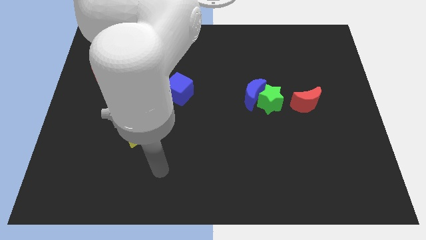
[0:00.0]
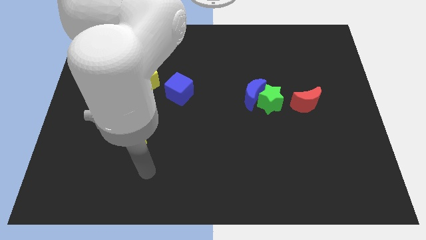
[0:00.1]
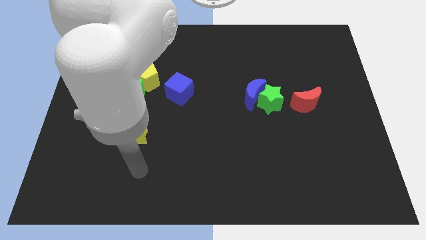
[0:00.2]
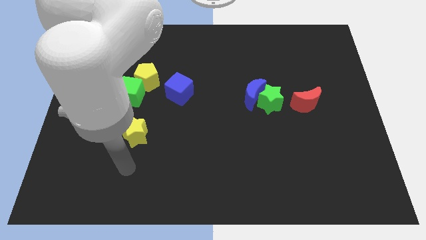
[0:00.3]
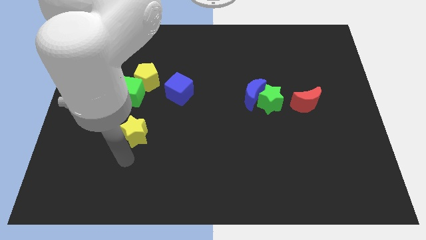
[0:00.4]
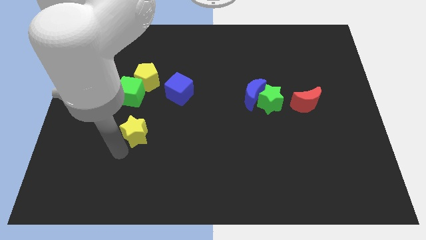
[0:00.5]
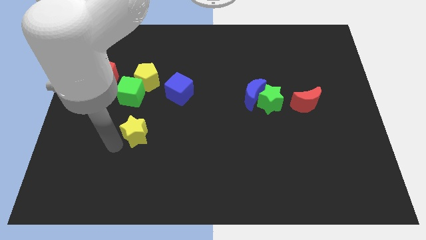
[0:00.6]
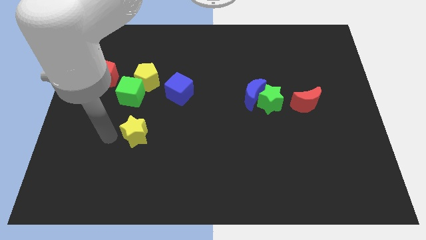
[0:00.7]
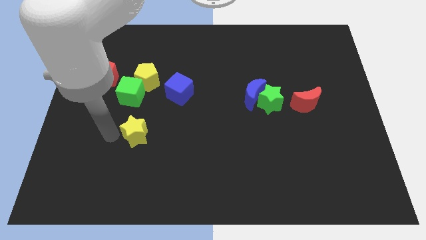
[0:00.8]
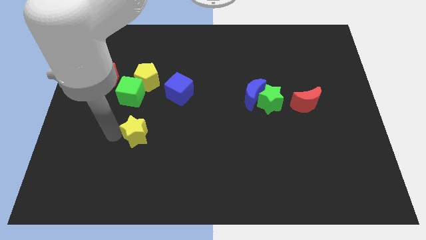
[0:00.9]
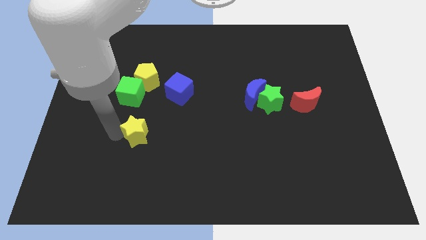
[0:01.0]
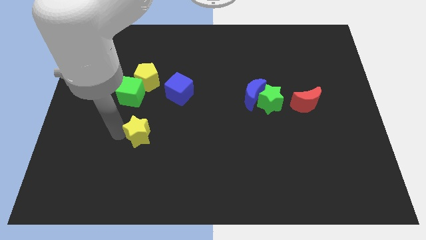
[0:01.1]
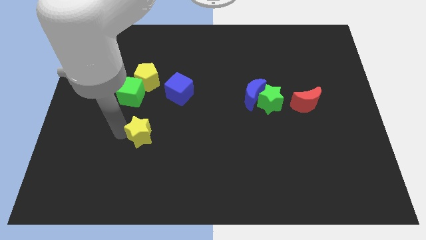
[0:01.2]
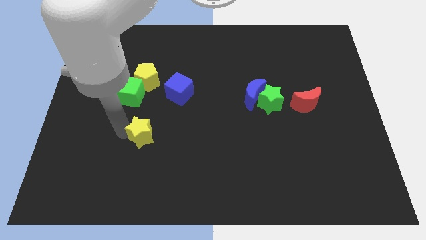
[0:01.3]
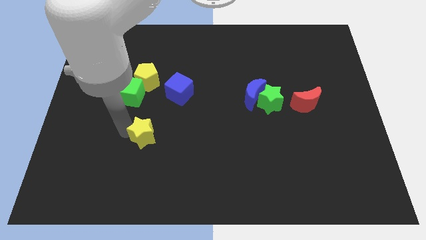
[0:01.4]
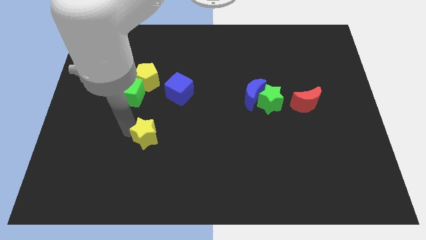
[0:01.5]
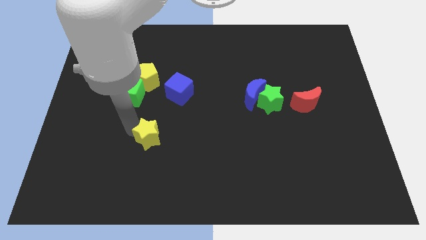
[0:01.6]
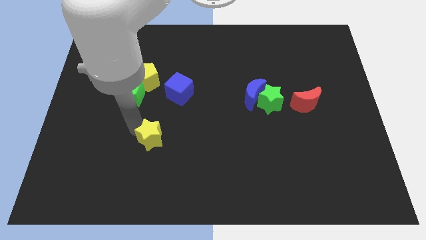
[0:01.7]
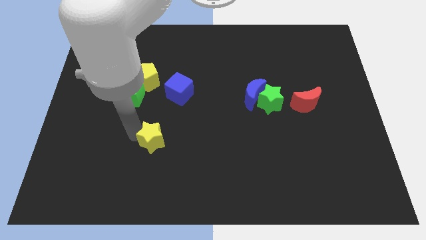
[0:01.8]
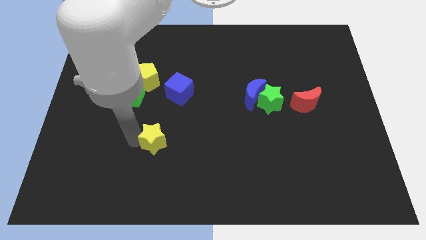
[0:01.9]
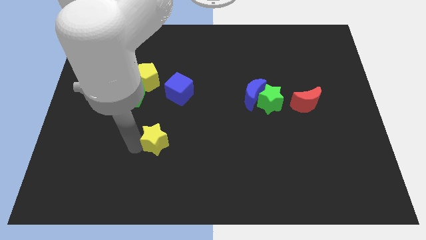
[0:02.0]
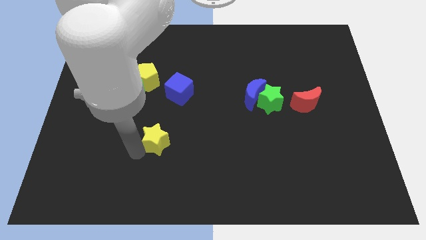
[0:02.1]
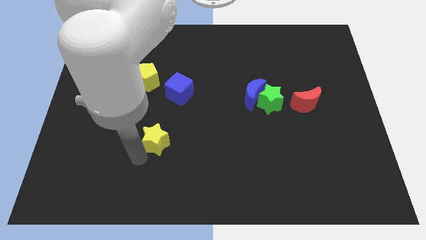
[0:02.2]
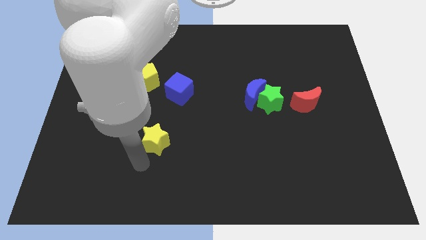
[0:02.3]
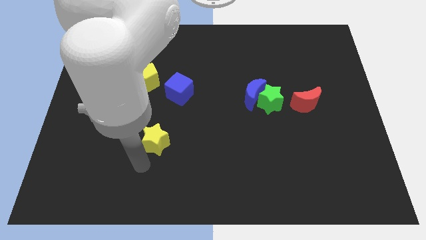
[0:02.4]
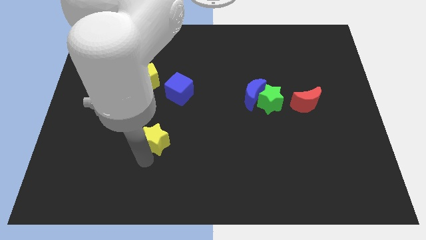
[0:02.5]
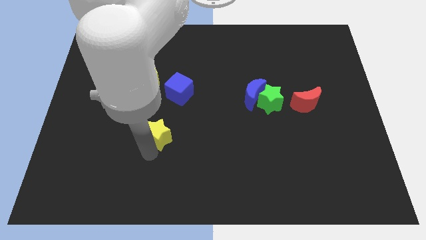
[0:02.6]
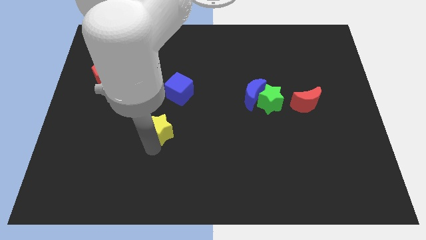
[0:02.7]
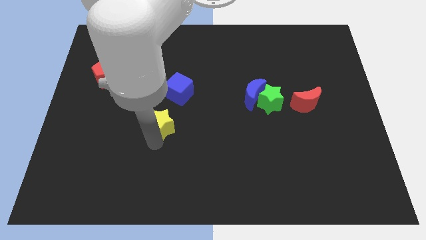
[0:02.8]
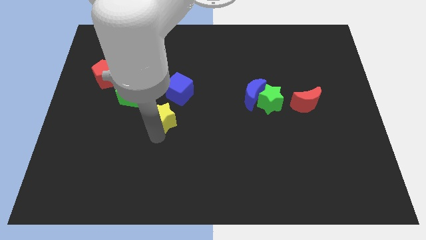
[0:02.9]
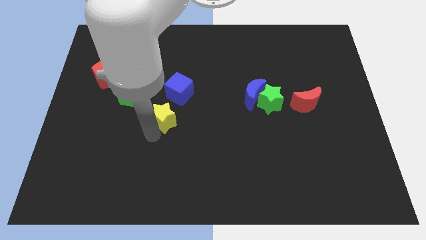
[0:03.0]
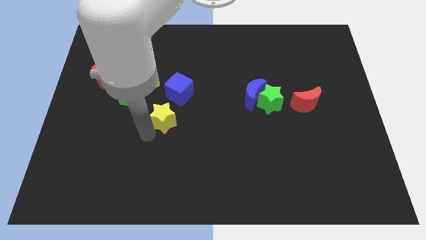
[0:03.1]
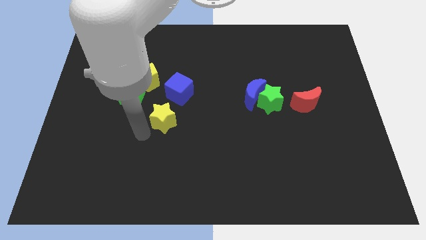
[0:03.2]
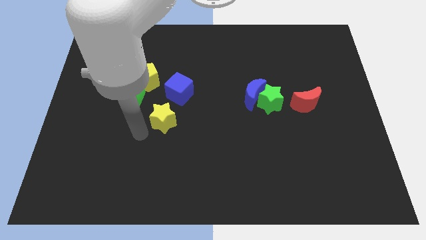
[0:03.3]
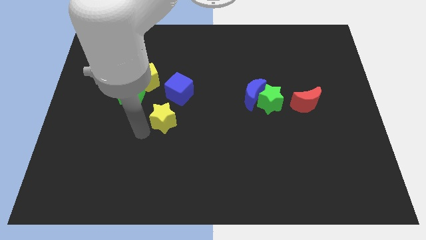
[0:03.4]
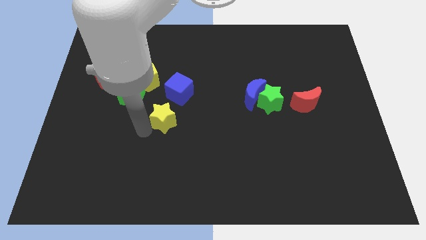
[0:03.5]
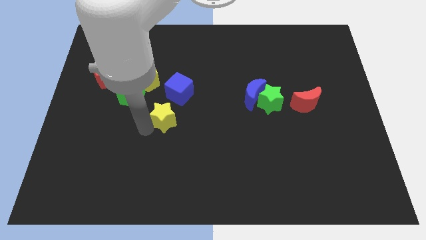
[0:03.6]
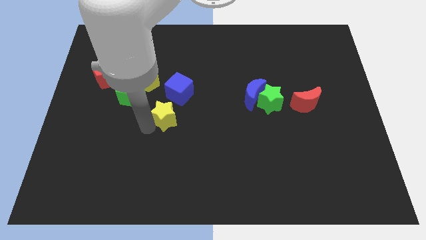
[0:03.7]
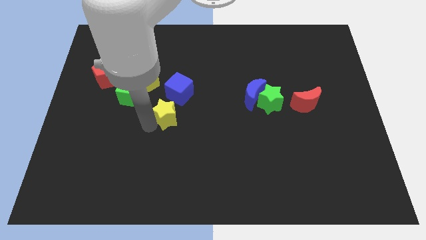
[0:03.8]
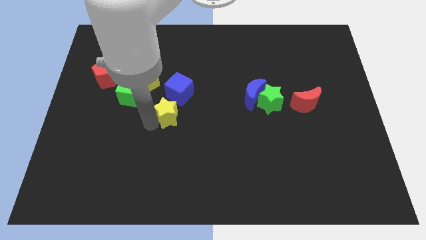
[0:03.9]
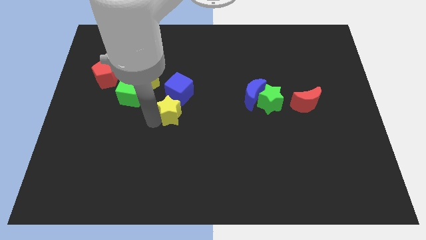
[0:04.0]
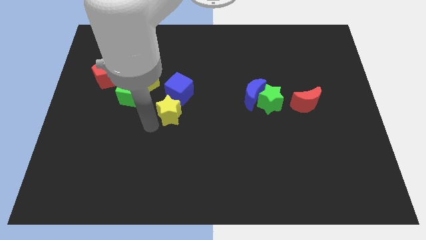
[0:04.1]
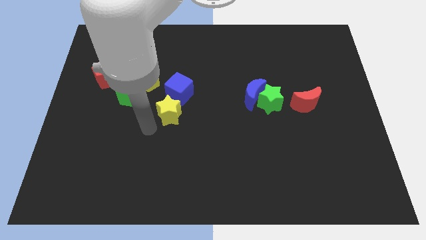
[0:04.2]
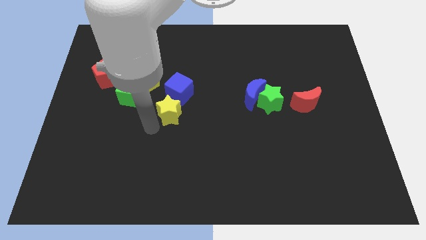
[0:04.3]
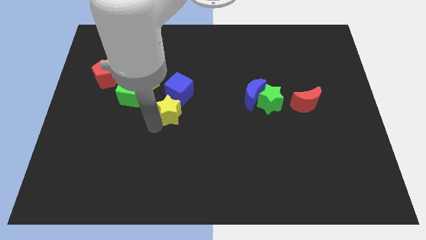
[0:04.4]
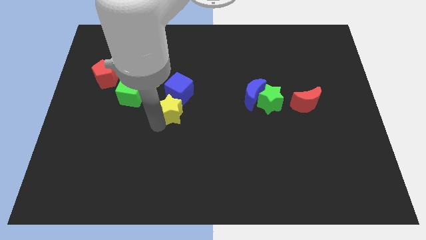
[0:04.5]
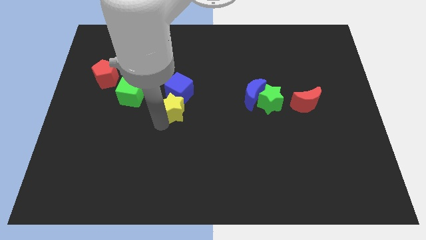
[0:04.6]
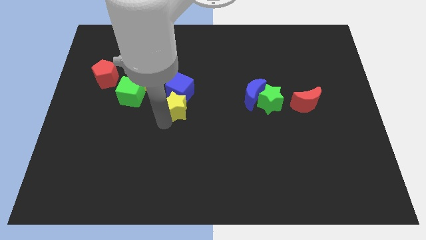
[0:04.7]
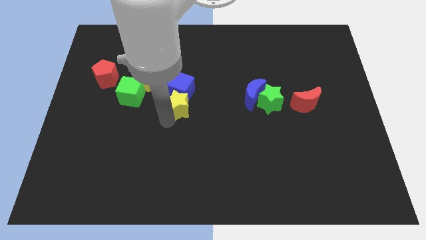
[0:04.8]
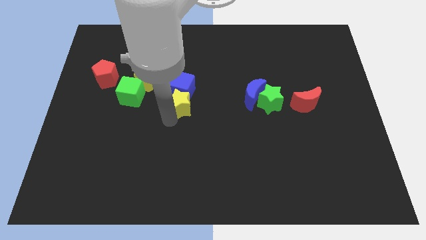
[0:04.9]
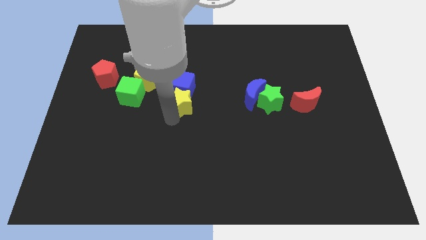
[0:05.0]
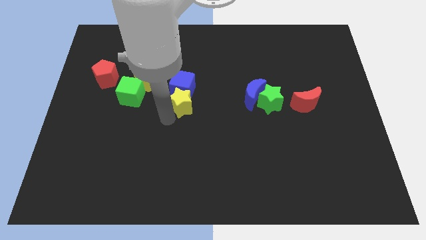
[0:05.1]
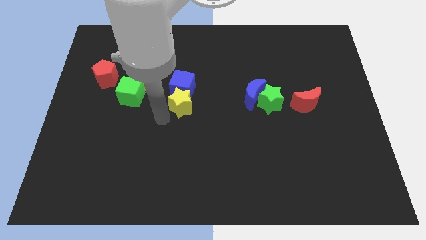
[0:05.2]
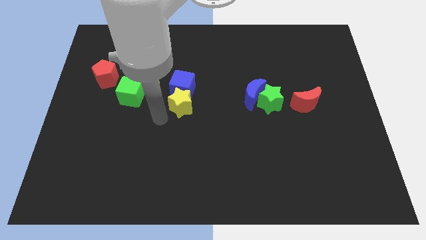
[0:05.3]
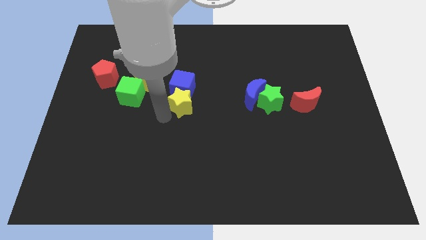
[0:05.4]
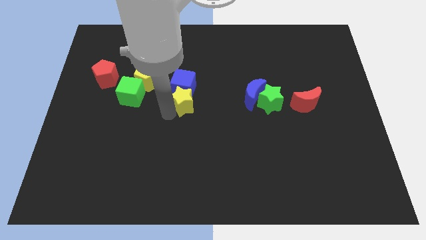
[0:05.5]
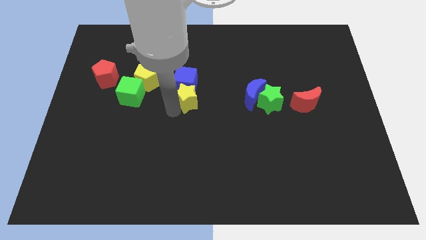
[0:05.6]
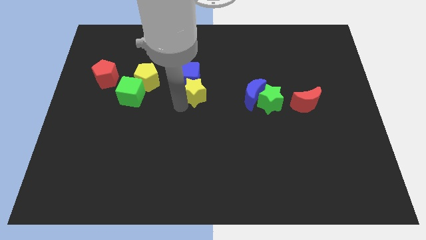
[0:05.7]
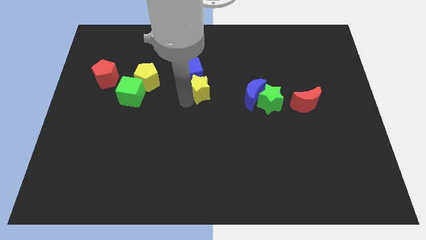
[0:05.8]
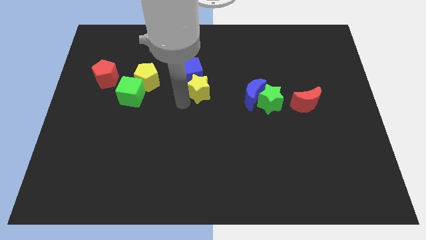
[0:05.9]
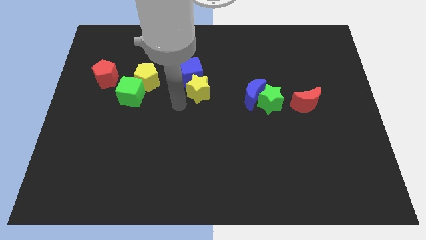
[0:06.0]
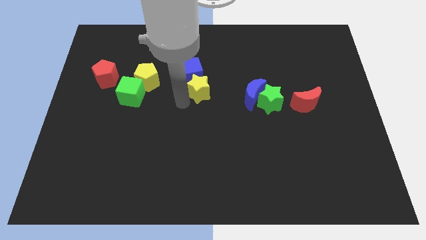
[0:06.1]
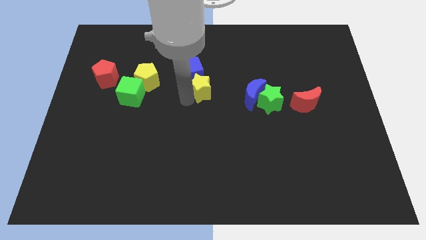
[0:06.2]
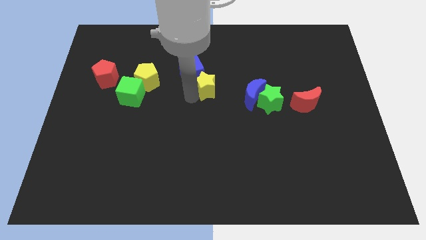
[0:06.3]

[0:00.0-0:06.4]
push the yellow star upwards and right

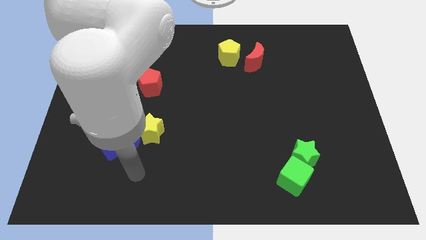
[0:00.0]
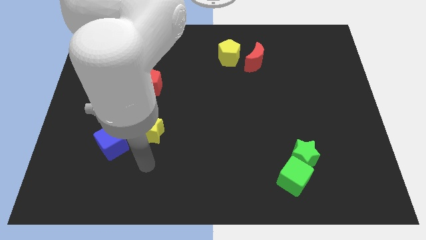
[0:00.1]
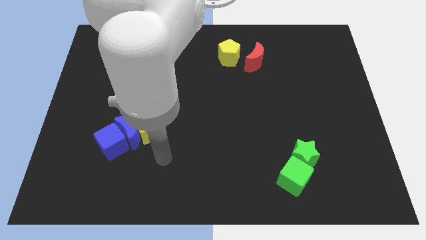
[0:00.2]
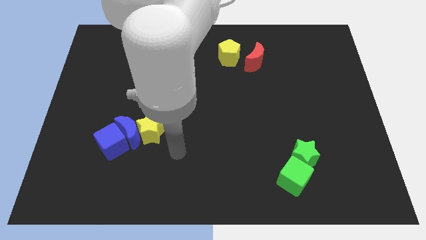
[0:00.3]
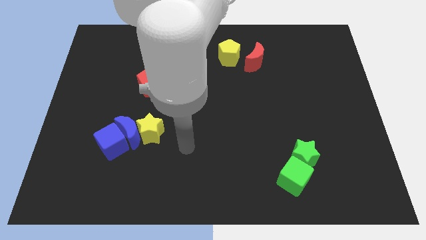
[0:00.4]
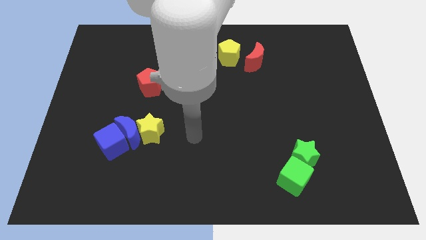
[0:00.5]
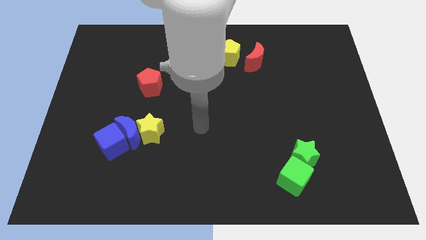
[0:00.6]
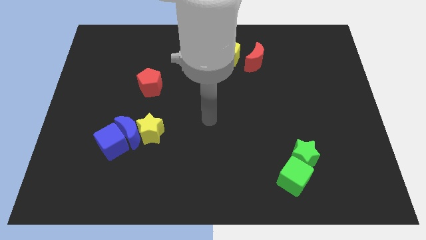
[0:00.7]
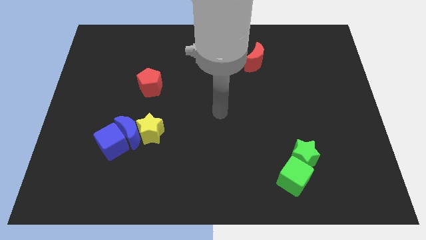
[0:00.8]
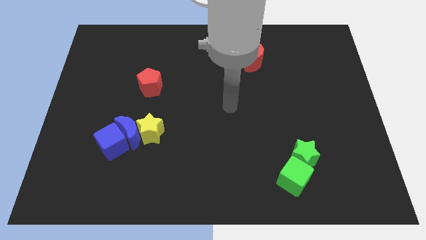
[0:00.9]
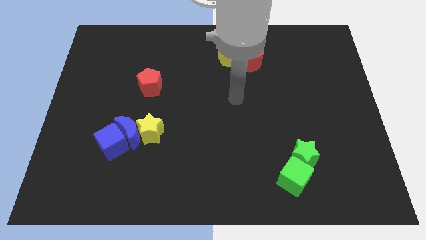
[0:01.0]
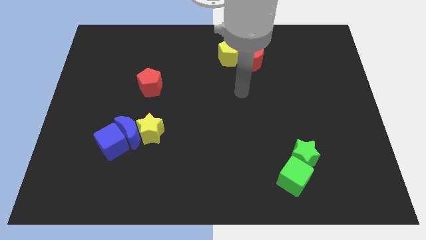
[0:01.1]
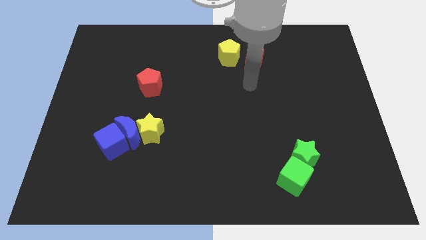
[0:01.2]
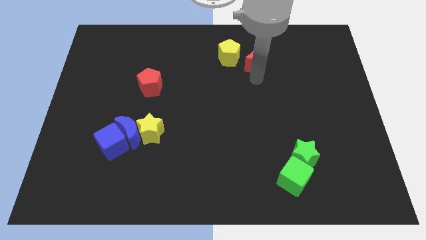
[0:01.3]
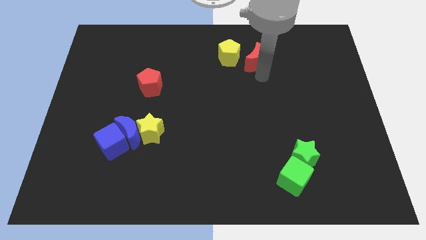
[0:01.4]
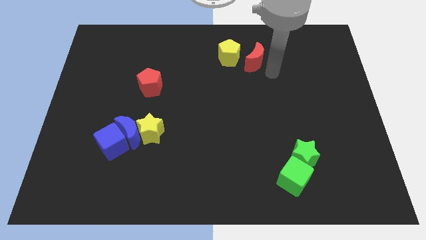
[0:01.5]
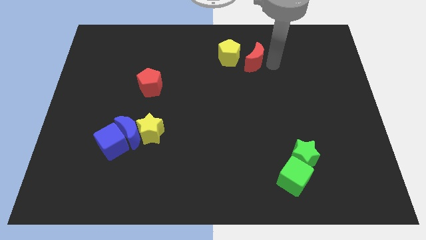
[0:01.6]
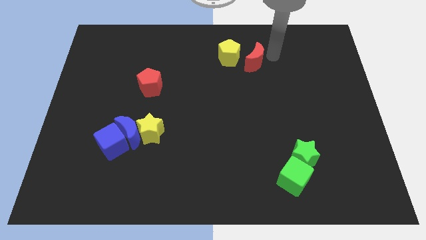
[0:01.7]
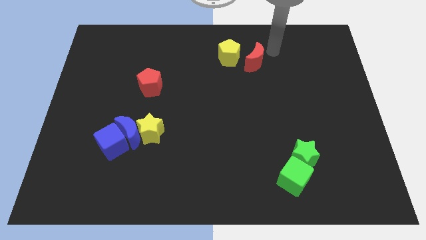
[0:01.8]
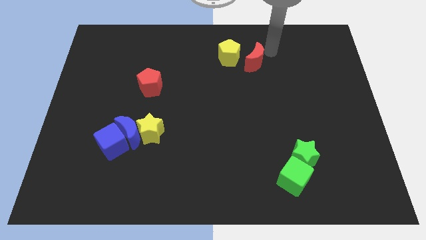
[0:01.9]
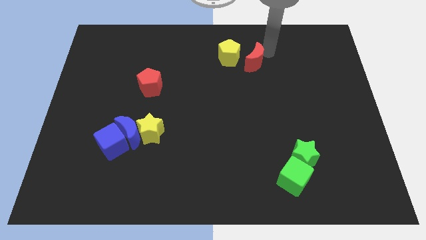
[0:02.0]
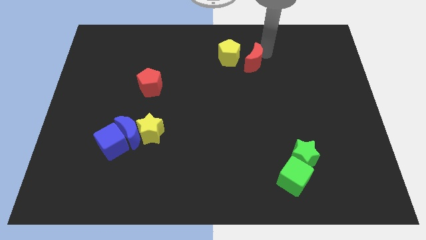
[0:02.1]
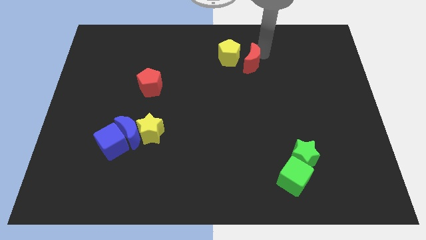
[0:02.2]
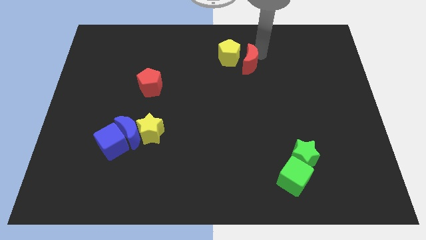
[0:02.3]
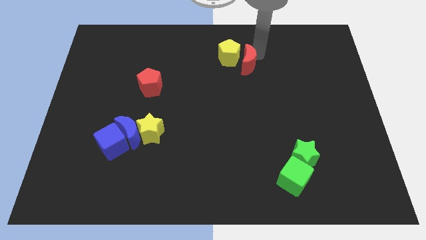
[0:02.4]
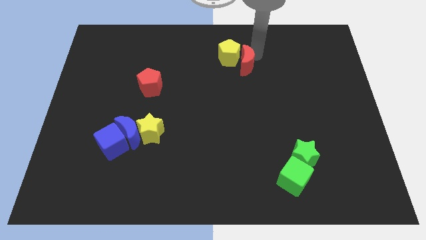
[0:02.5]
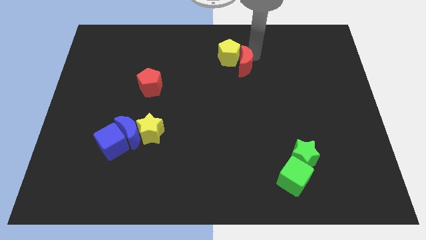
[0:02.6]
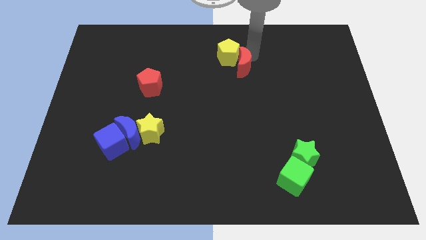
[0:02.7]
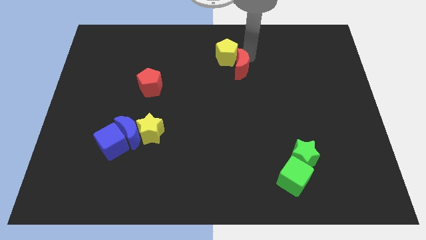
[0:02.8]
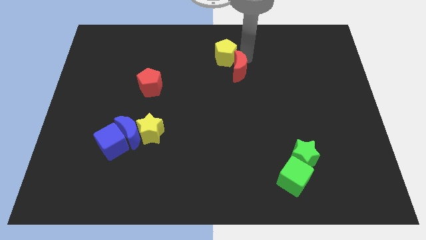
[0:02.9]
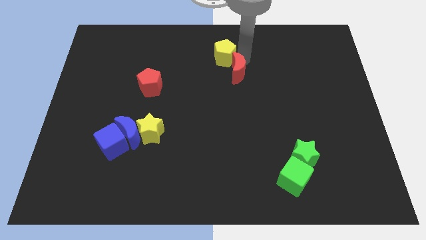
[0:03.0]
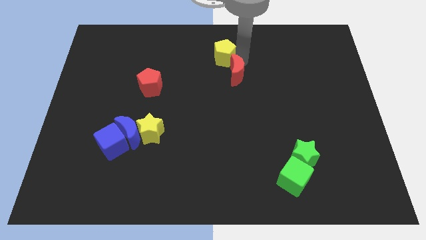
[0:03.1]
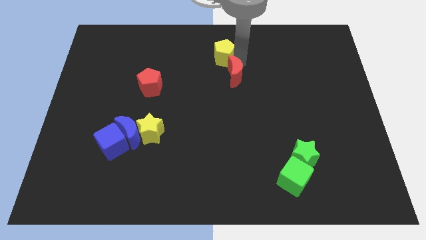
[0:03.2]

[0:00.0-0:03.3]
slightly slide the red moon down and then to the left
